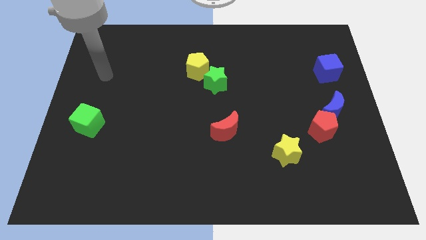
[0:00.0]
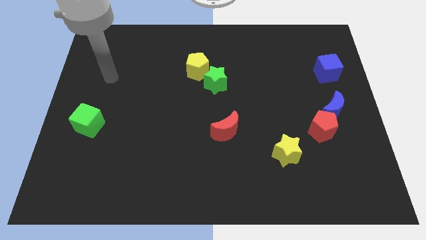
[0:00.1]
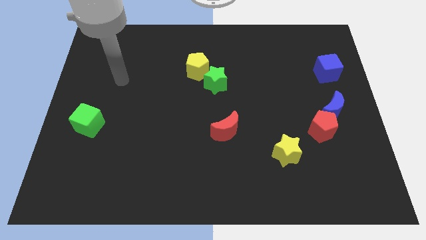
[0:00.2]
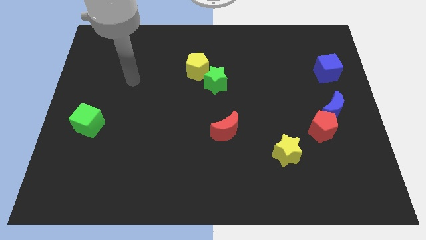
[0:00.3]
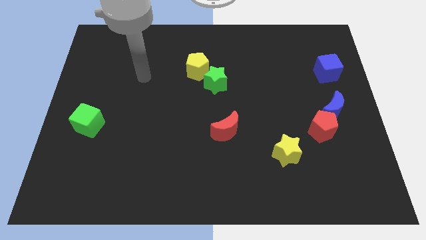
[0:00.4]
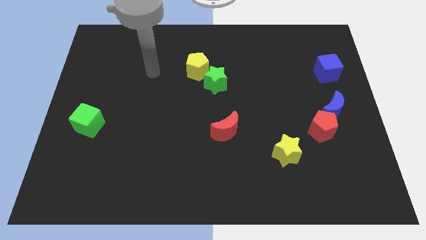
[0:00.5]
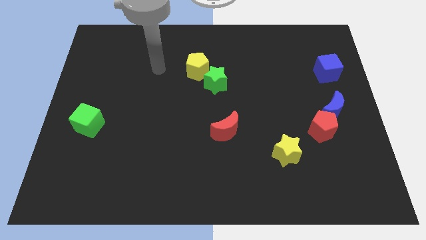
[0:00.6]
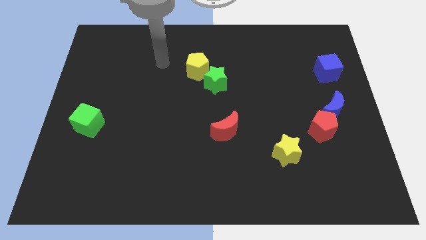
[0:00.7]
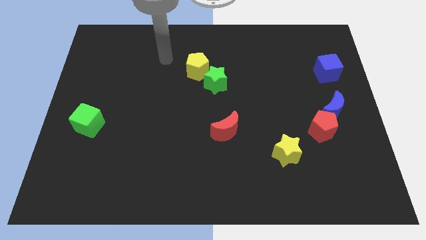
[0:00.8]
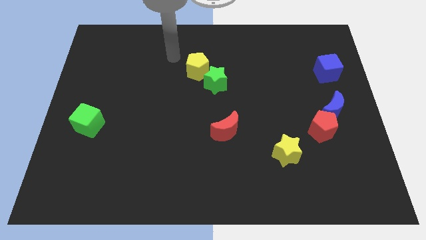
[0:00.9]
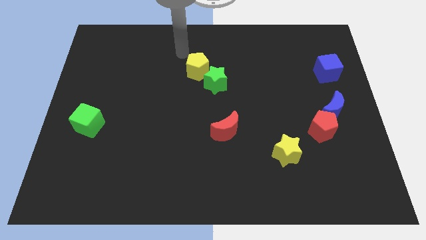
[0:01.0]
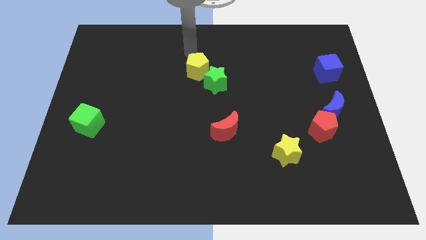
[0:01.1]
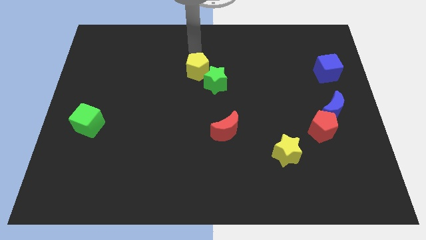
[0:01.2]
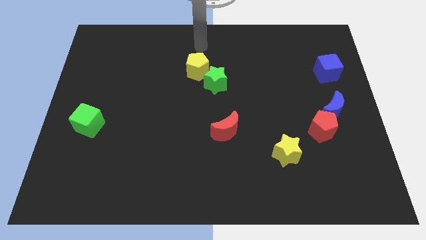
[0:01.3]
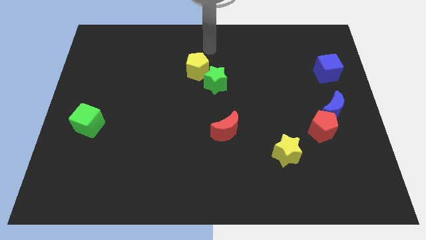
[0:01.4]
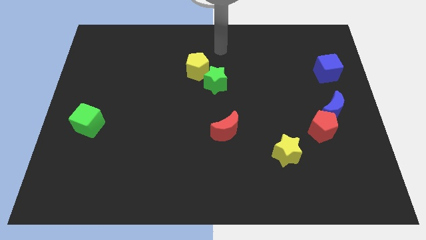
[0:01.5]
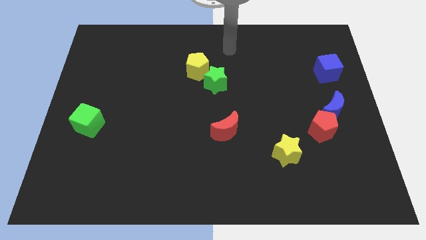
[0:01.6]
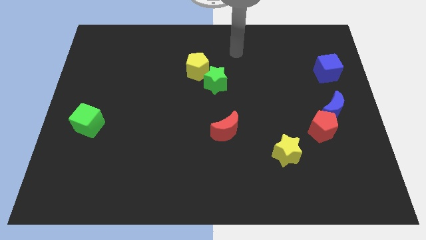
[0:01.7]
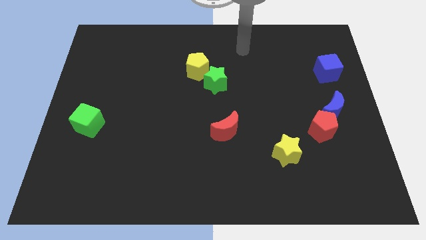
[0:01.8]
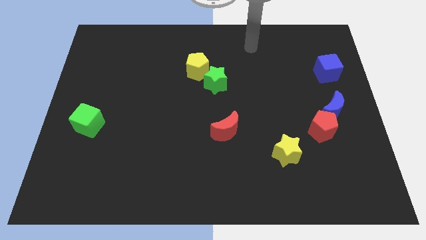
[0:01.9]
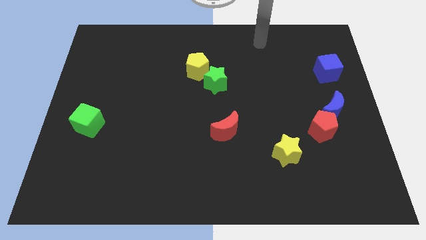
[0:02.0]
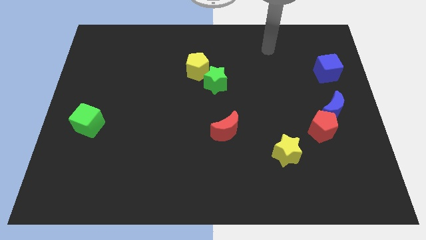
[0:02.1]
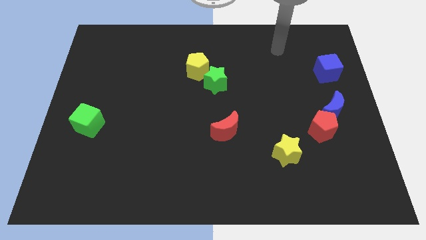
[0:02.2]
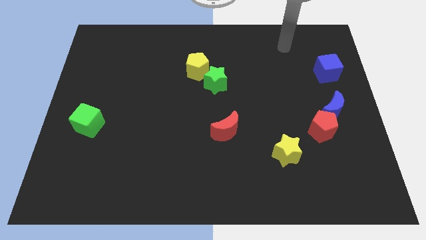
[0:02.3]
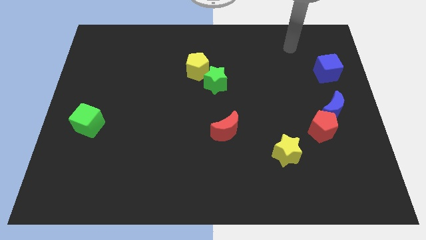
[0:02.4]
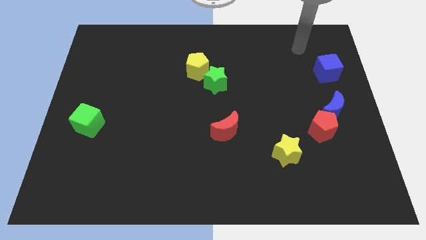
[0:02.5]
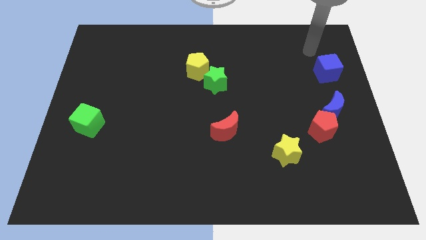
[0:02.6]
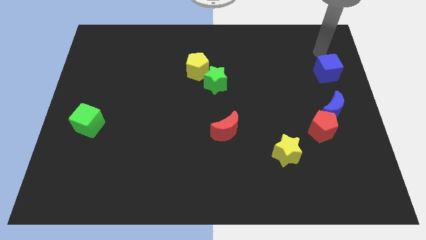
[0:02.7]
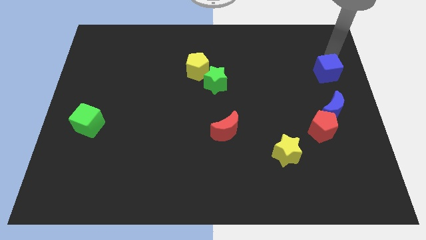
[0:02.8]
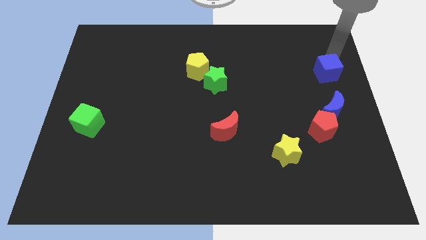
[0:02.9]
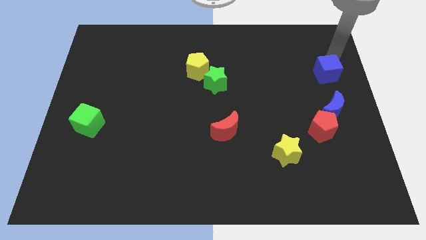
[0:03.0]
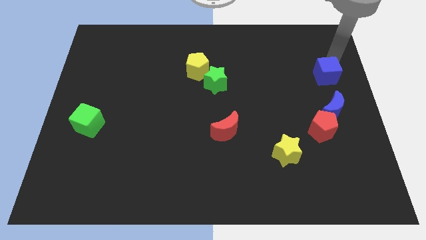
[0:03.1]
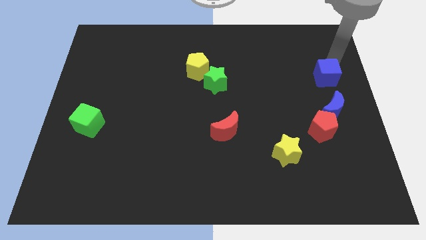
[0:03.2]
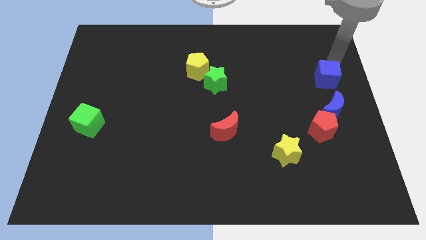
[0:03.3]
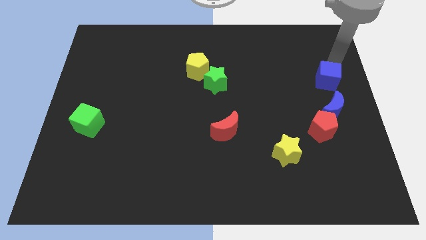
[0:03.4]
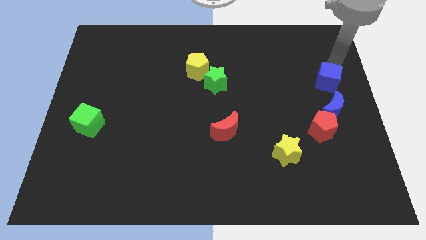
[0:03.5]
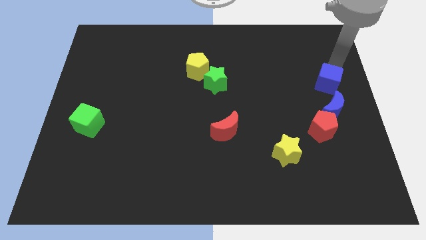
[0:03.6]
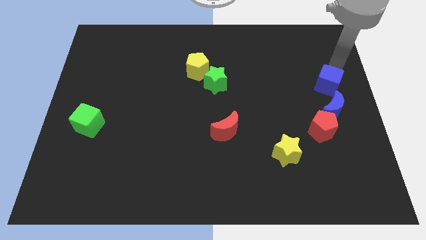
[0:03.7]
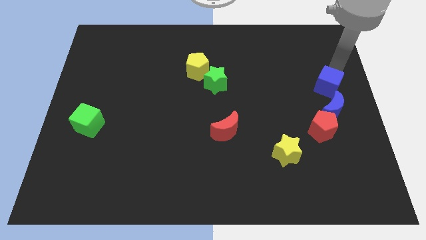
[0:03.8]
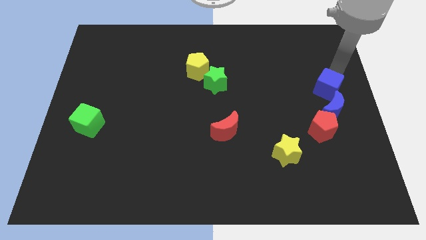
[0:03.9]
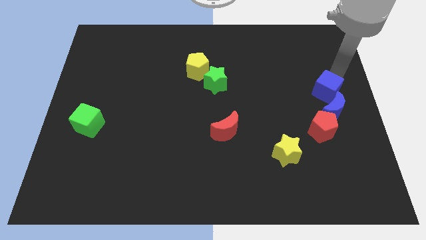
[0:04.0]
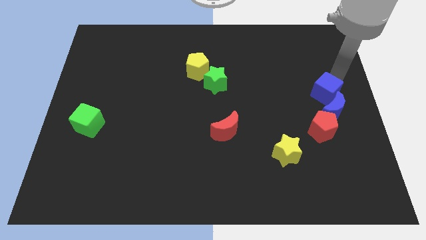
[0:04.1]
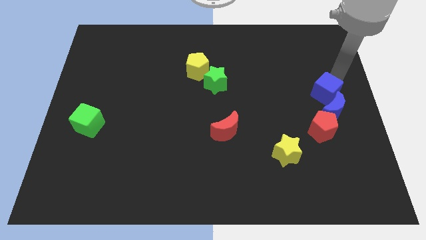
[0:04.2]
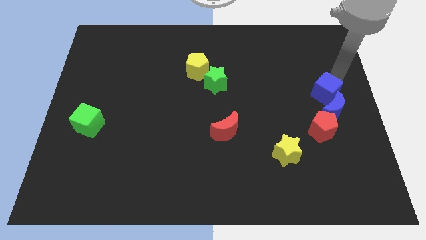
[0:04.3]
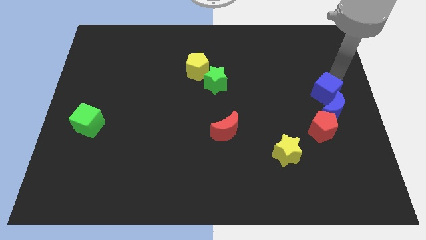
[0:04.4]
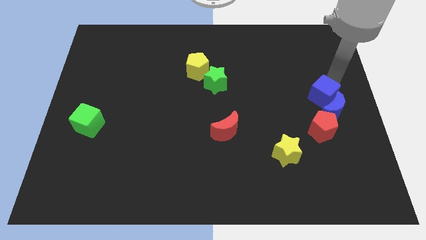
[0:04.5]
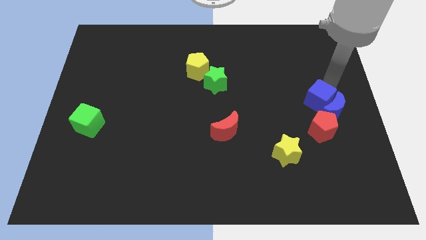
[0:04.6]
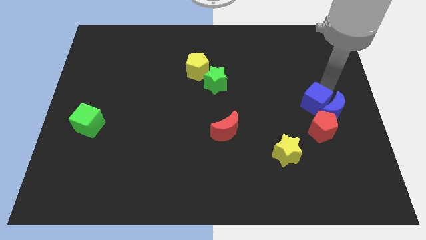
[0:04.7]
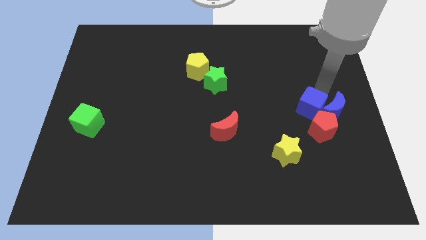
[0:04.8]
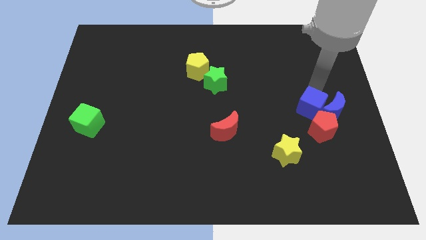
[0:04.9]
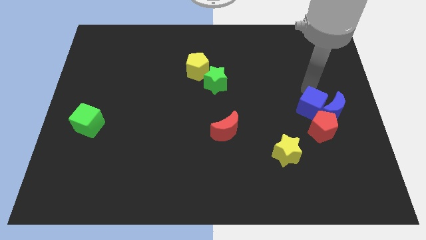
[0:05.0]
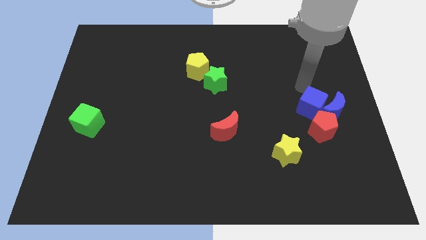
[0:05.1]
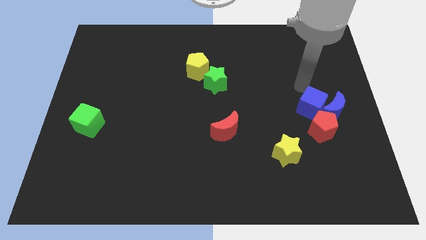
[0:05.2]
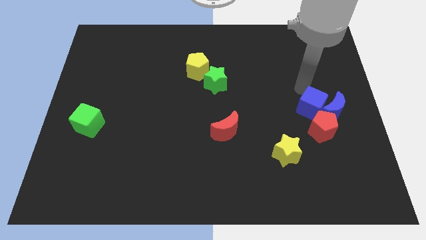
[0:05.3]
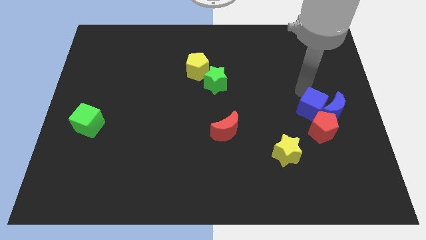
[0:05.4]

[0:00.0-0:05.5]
slide the blue cube close to the red pentagon

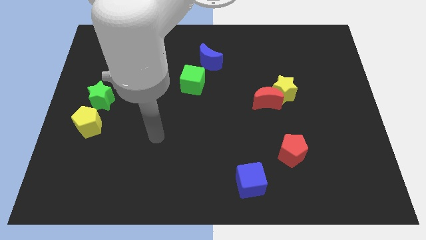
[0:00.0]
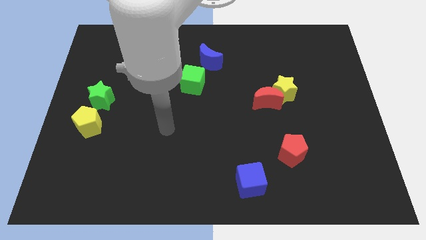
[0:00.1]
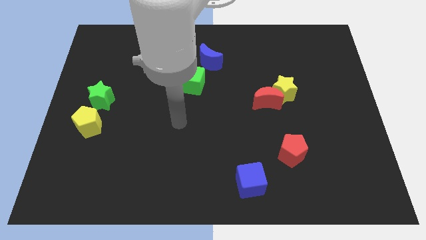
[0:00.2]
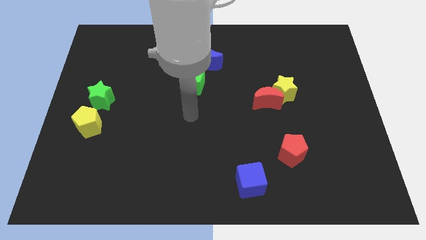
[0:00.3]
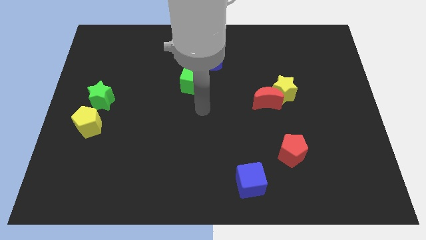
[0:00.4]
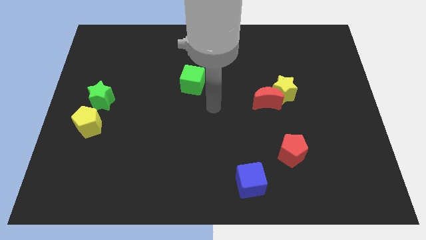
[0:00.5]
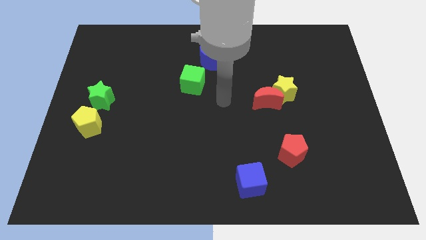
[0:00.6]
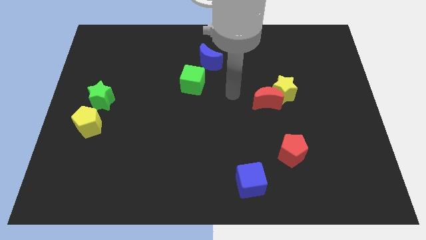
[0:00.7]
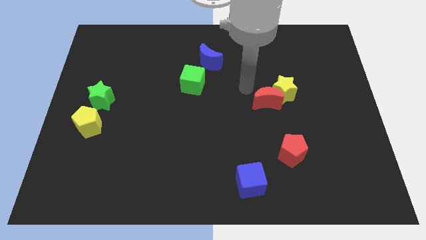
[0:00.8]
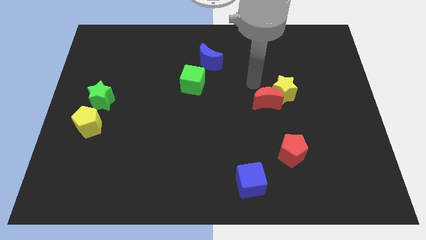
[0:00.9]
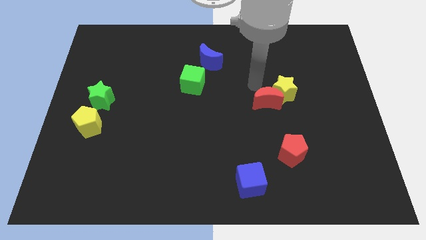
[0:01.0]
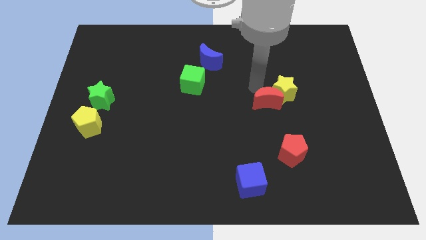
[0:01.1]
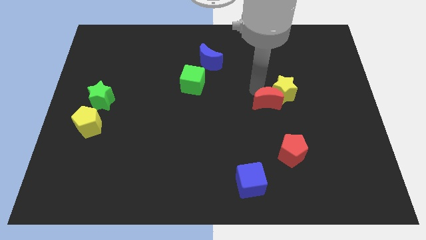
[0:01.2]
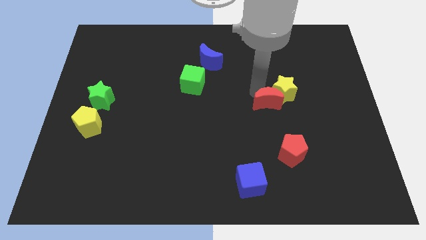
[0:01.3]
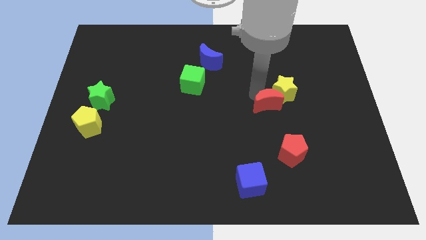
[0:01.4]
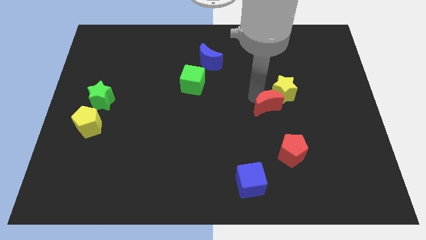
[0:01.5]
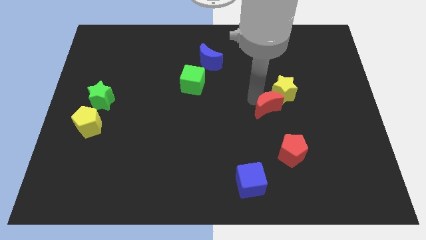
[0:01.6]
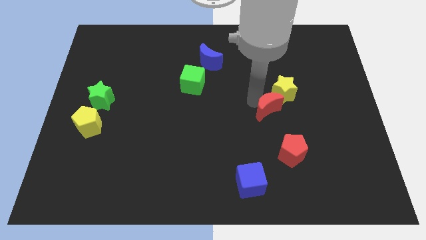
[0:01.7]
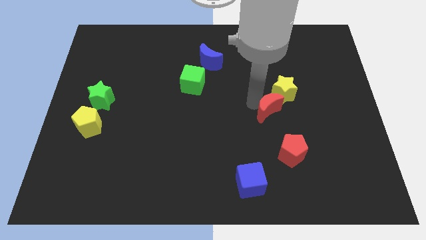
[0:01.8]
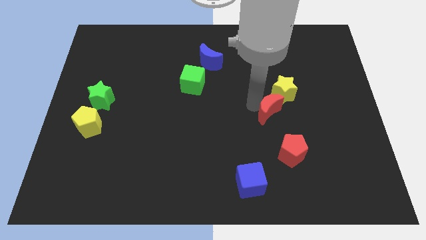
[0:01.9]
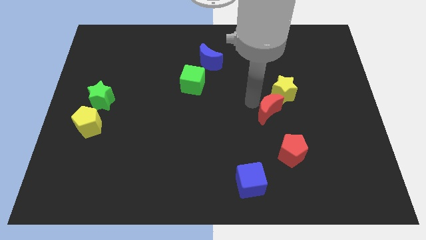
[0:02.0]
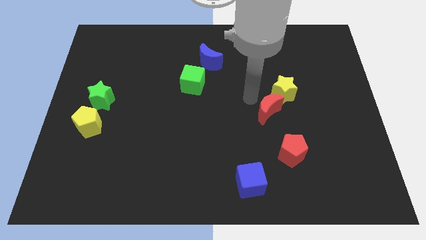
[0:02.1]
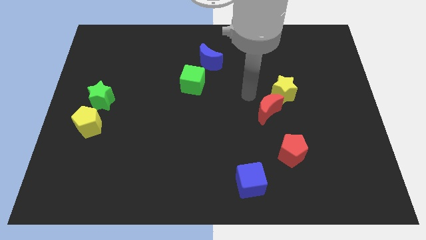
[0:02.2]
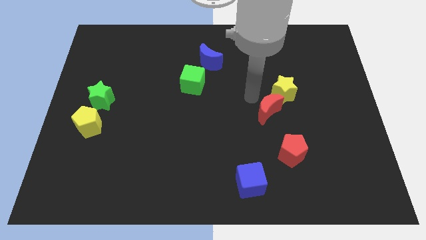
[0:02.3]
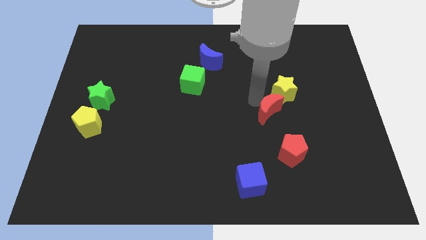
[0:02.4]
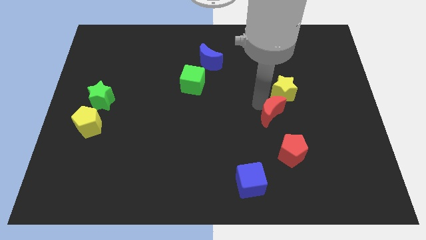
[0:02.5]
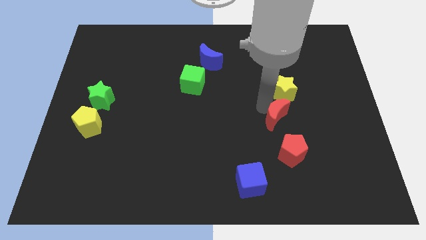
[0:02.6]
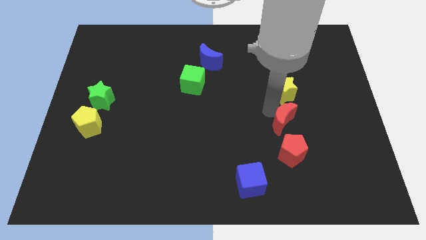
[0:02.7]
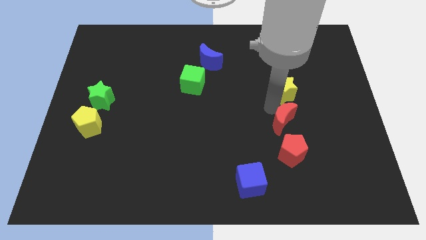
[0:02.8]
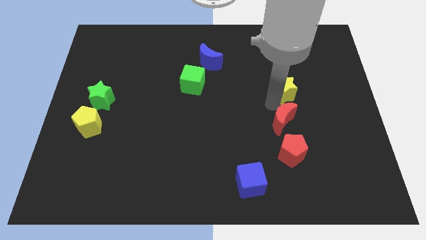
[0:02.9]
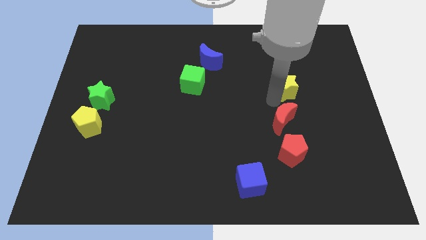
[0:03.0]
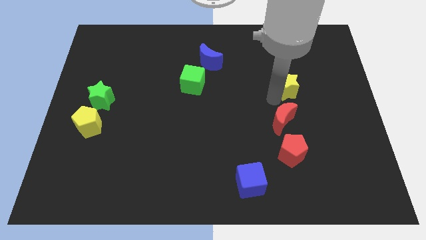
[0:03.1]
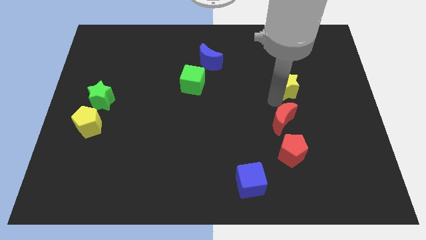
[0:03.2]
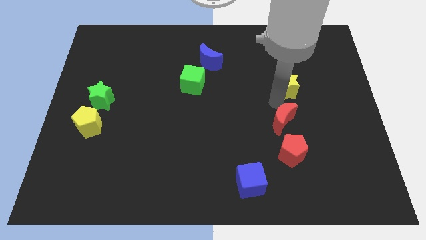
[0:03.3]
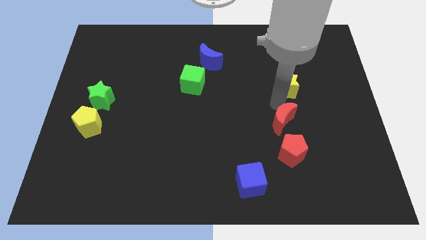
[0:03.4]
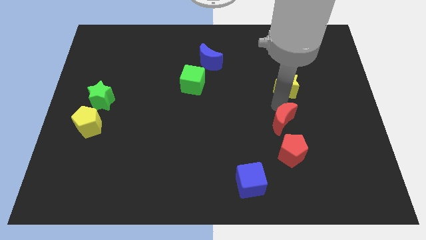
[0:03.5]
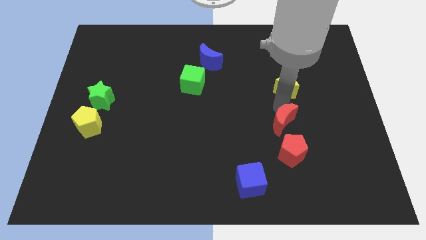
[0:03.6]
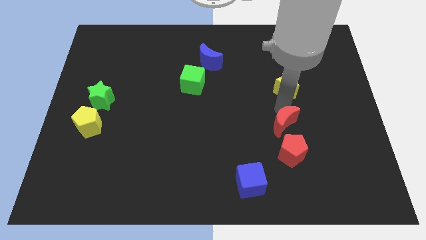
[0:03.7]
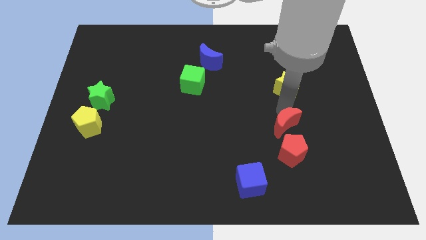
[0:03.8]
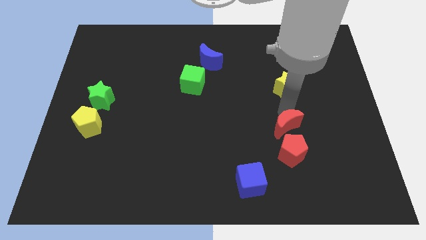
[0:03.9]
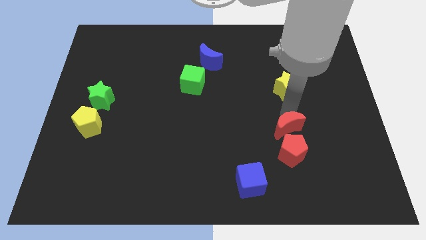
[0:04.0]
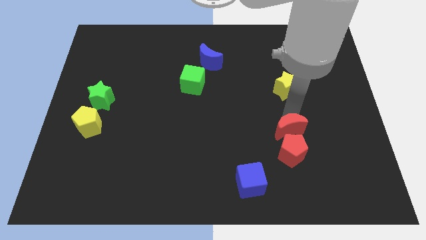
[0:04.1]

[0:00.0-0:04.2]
put the red moon to the red pentagon
